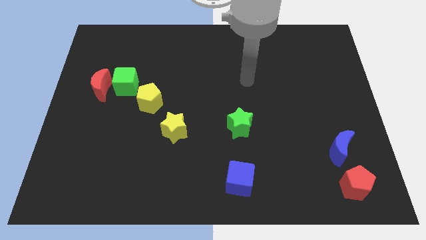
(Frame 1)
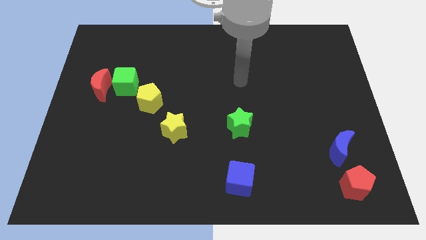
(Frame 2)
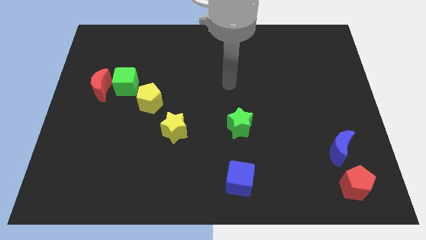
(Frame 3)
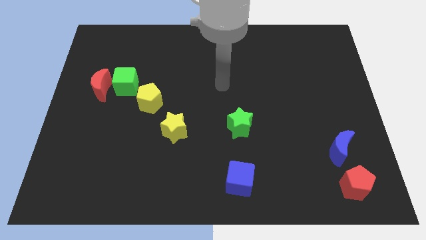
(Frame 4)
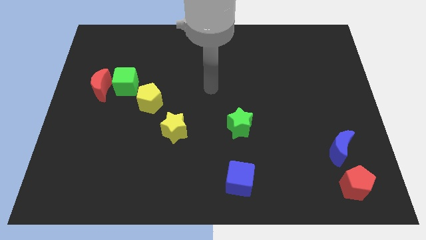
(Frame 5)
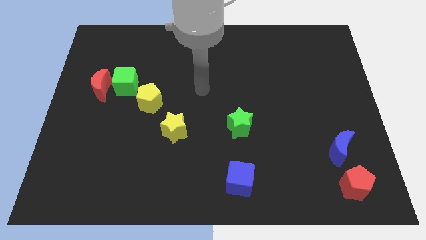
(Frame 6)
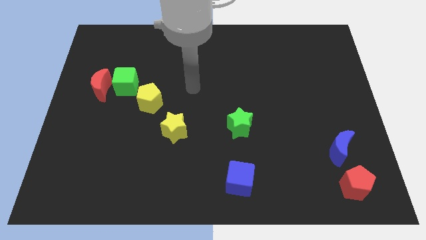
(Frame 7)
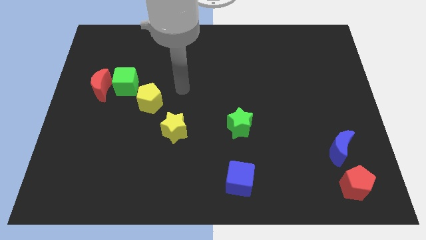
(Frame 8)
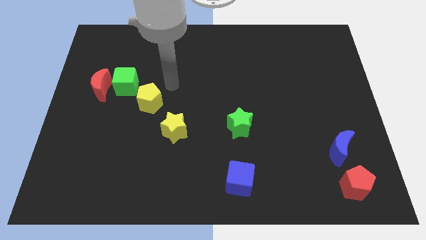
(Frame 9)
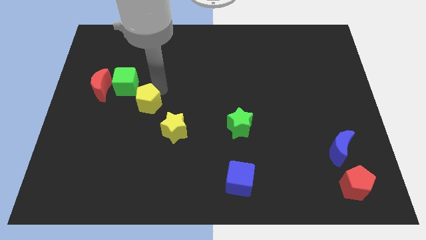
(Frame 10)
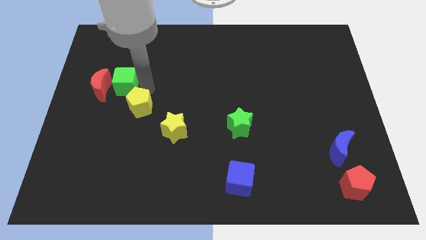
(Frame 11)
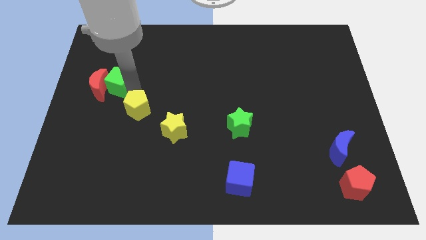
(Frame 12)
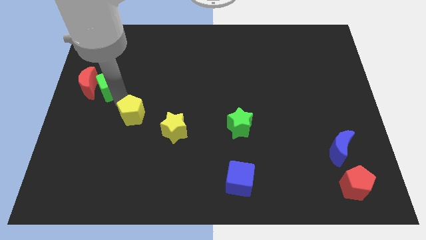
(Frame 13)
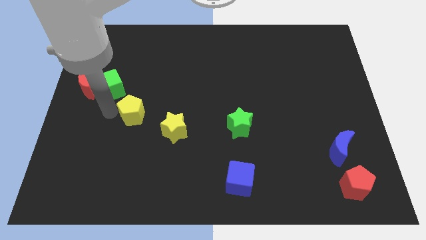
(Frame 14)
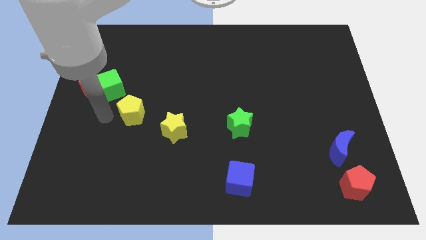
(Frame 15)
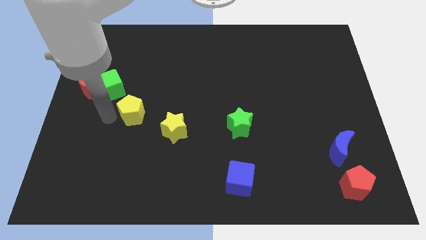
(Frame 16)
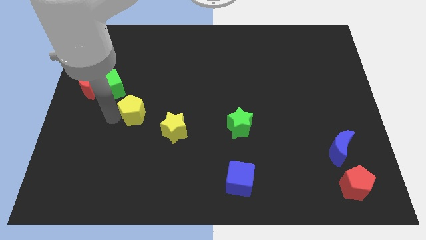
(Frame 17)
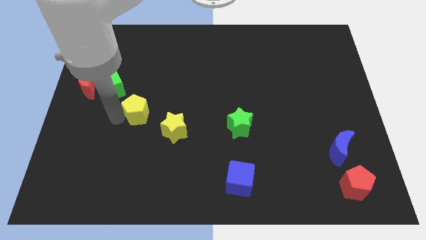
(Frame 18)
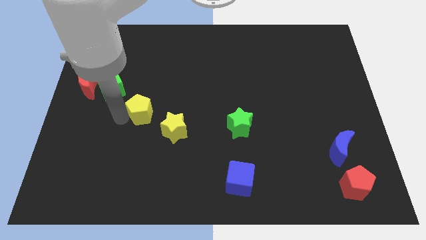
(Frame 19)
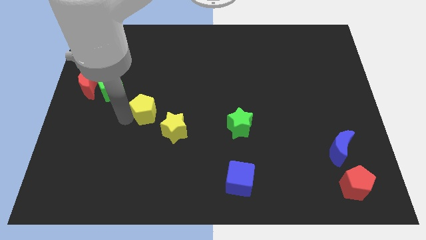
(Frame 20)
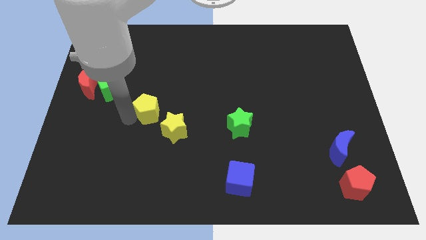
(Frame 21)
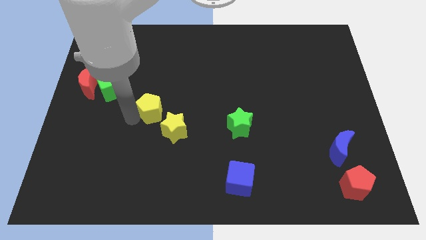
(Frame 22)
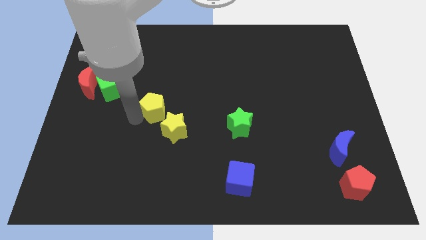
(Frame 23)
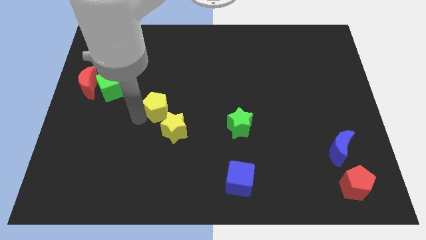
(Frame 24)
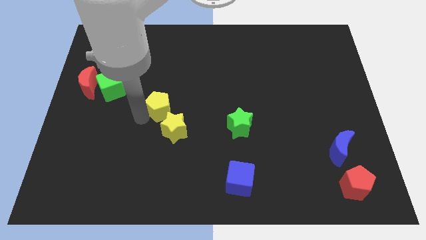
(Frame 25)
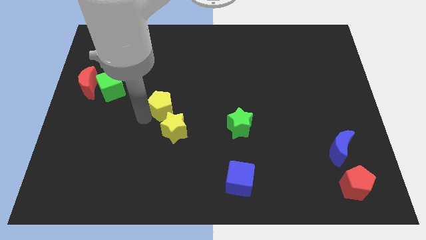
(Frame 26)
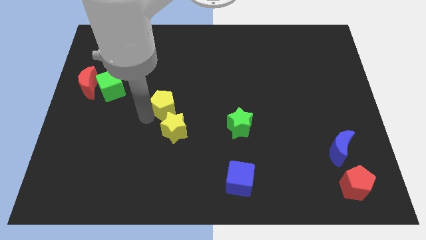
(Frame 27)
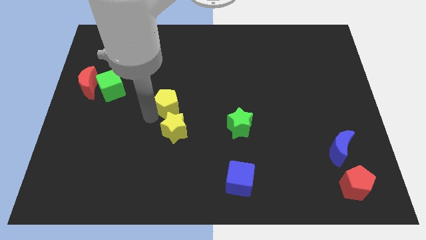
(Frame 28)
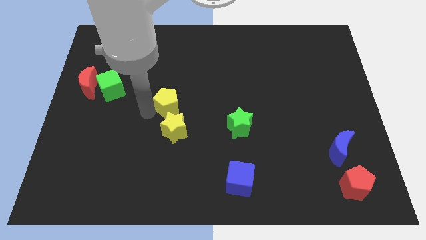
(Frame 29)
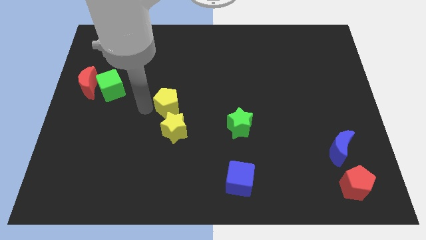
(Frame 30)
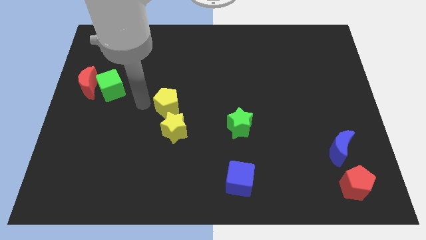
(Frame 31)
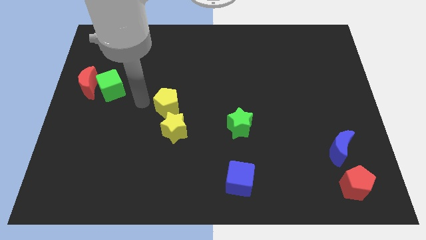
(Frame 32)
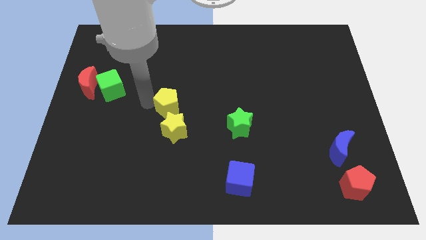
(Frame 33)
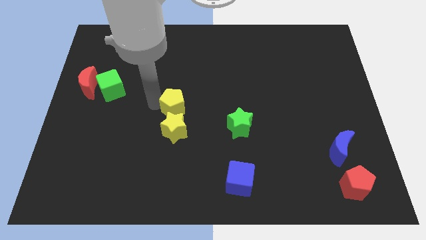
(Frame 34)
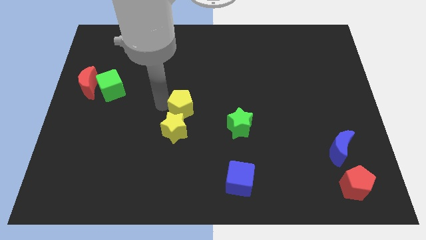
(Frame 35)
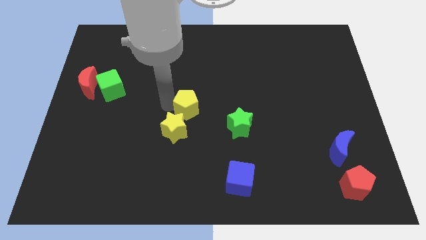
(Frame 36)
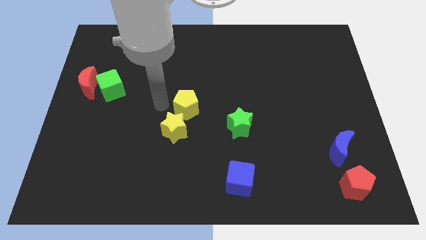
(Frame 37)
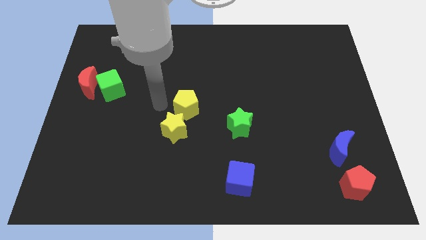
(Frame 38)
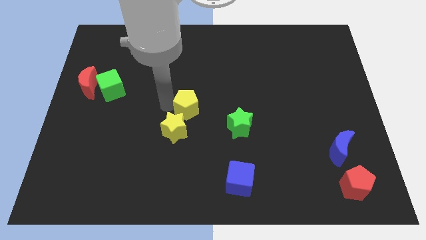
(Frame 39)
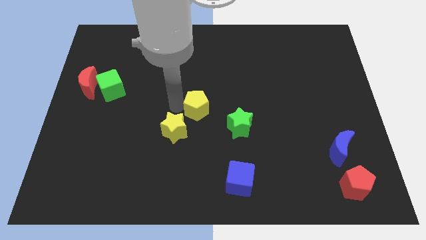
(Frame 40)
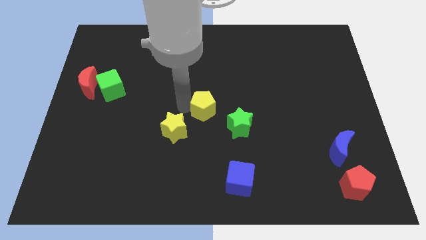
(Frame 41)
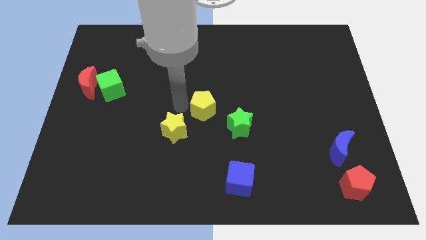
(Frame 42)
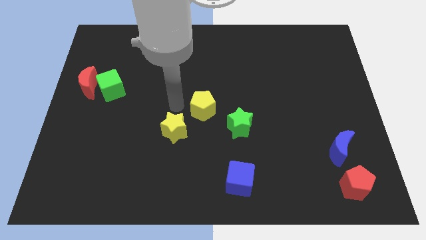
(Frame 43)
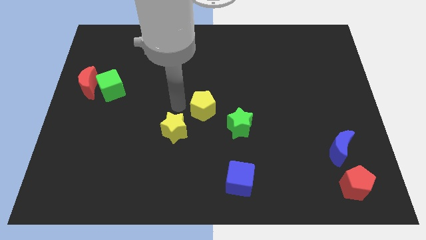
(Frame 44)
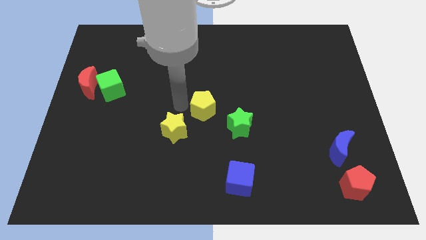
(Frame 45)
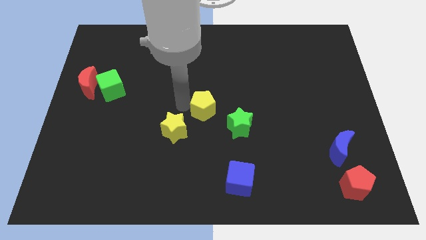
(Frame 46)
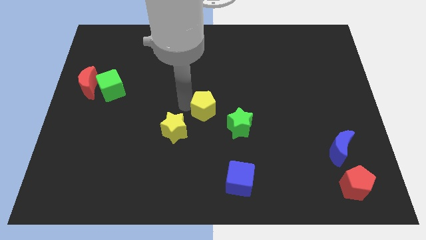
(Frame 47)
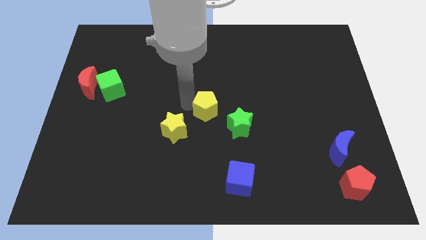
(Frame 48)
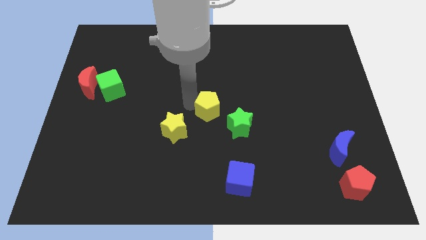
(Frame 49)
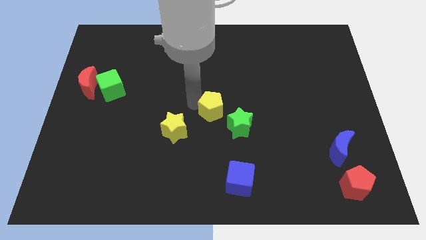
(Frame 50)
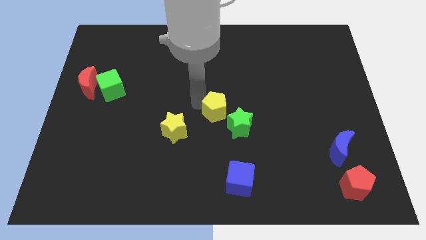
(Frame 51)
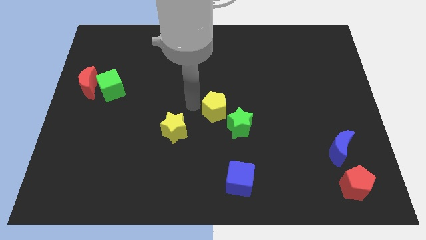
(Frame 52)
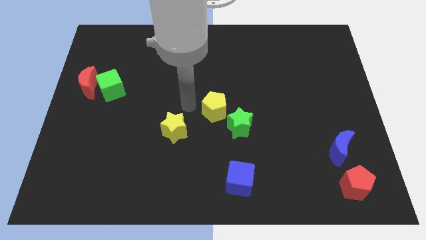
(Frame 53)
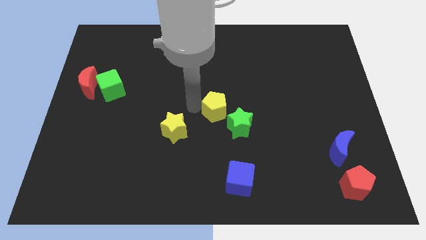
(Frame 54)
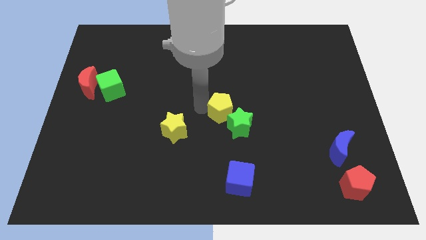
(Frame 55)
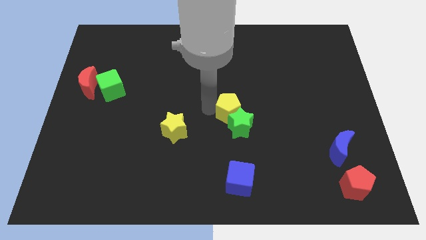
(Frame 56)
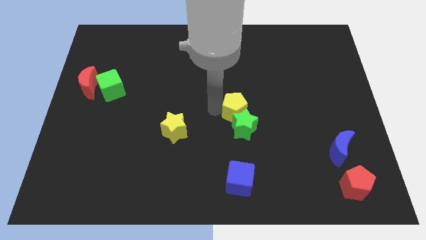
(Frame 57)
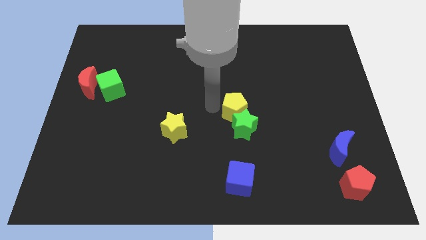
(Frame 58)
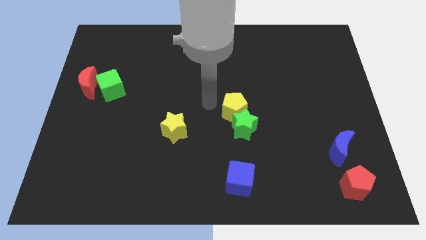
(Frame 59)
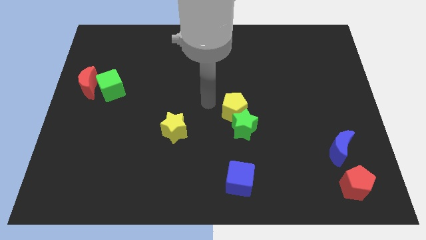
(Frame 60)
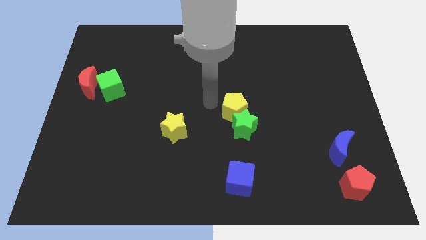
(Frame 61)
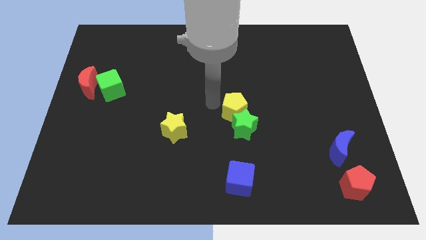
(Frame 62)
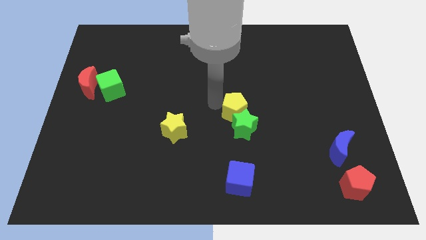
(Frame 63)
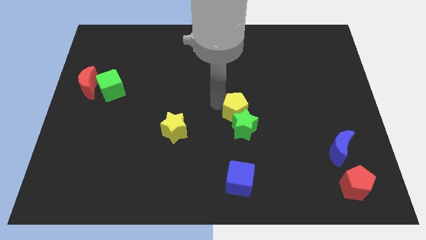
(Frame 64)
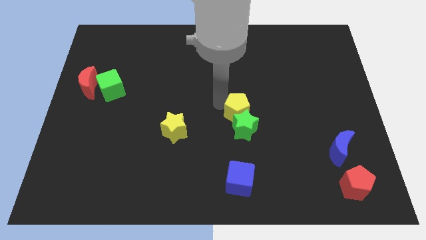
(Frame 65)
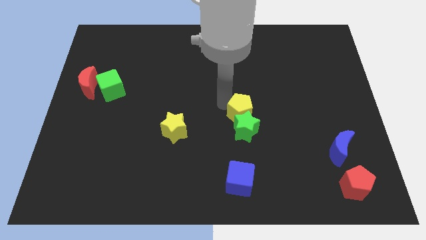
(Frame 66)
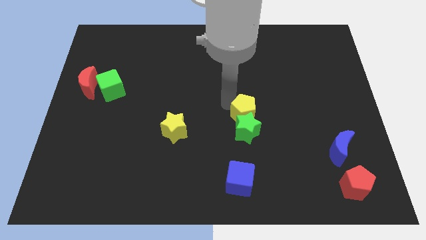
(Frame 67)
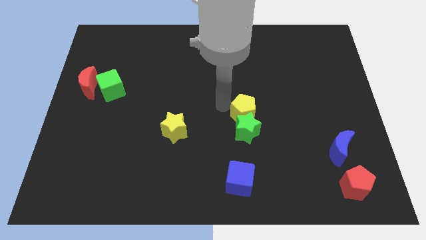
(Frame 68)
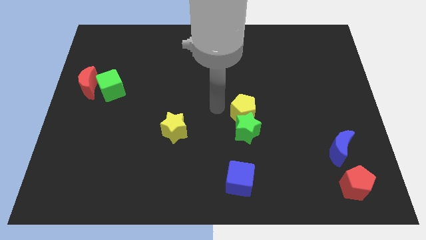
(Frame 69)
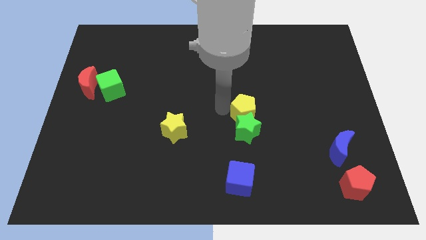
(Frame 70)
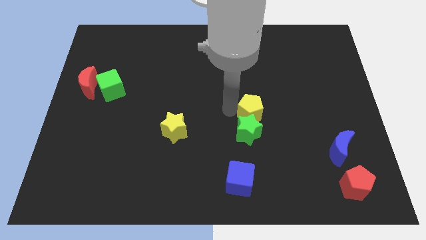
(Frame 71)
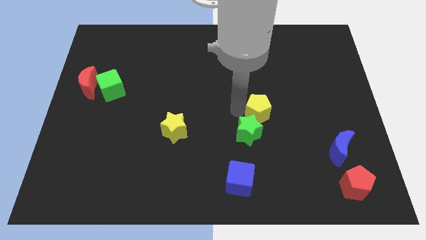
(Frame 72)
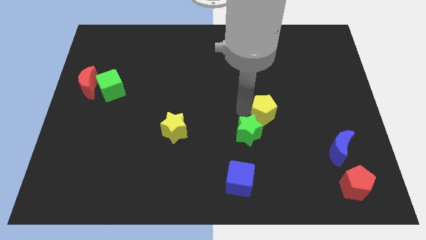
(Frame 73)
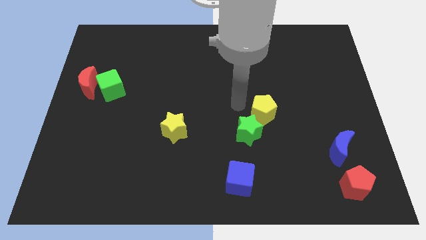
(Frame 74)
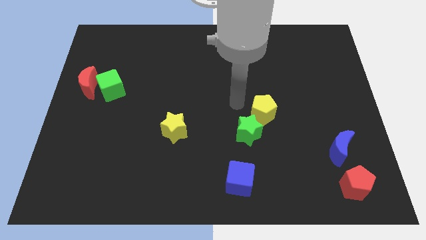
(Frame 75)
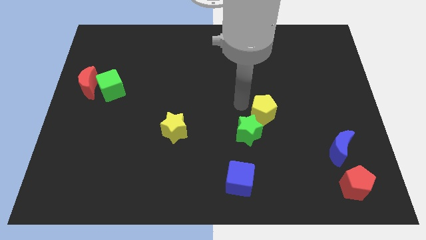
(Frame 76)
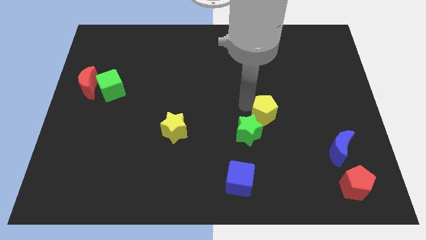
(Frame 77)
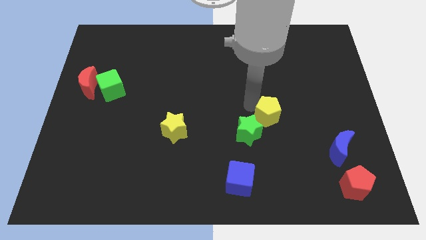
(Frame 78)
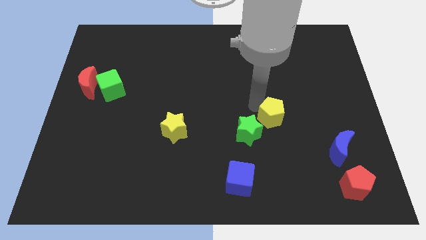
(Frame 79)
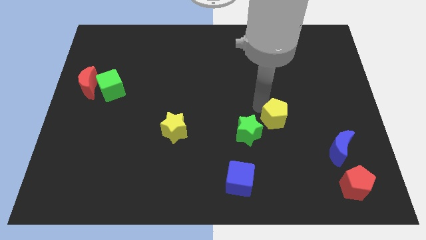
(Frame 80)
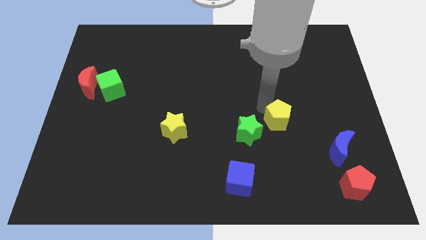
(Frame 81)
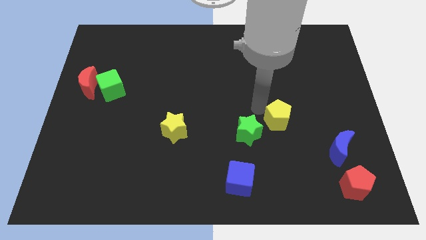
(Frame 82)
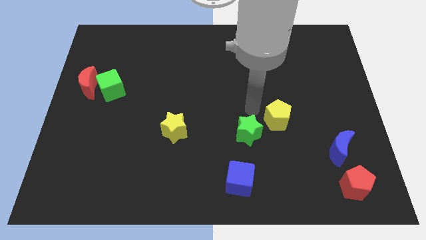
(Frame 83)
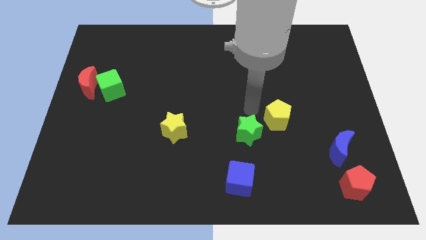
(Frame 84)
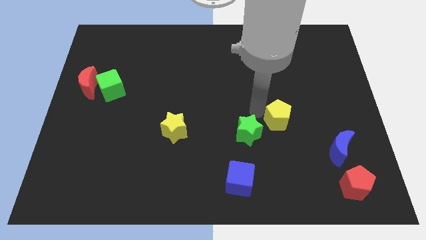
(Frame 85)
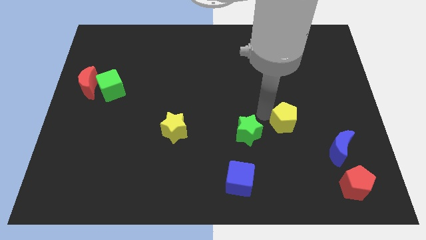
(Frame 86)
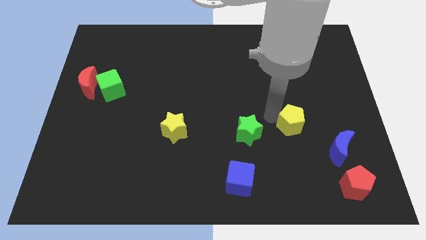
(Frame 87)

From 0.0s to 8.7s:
move the yellow pentagon diagonally up and to the left of the blue moon
